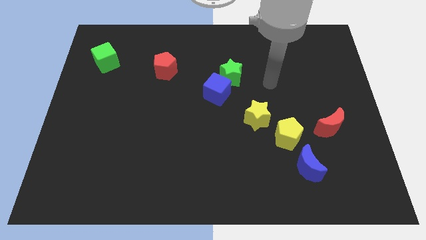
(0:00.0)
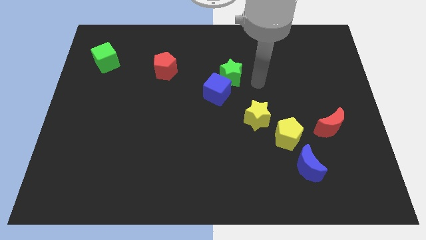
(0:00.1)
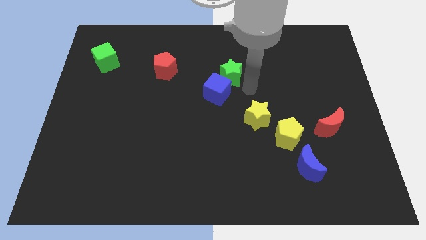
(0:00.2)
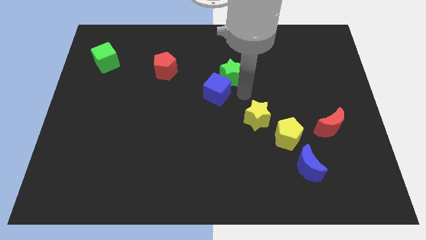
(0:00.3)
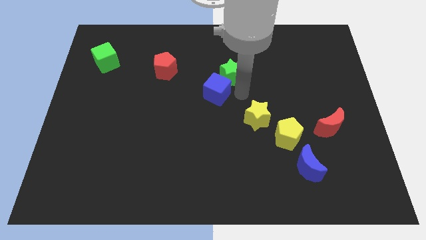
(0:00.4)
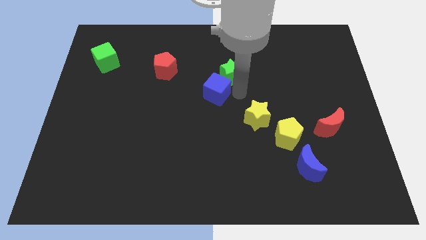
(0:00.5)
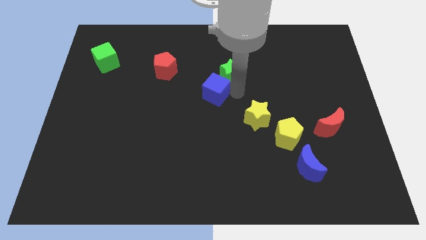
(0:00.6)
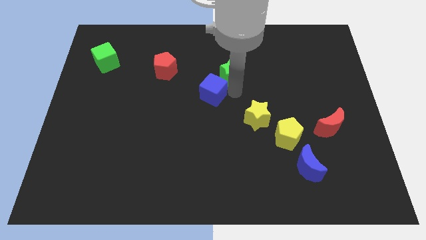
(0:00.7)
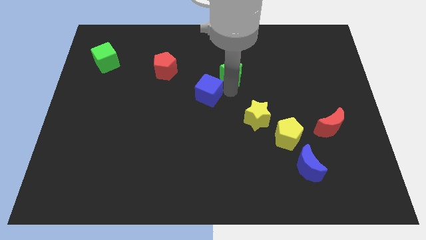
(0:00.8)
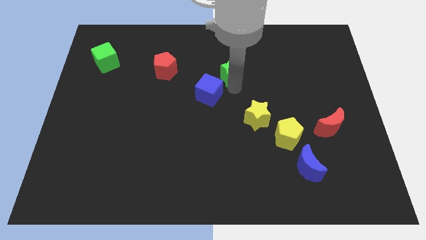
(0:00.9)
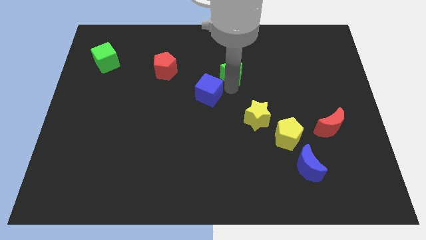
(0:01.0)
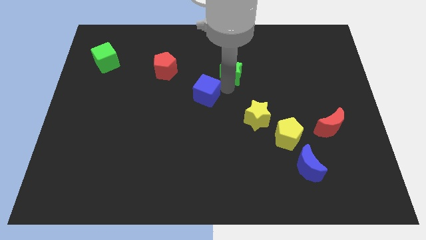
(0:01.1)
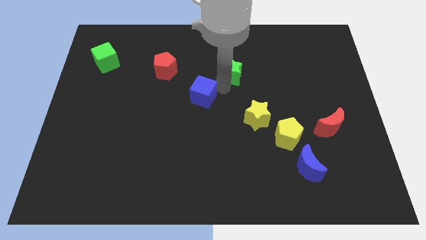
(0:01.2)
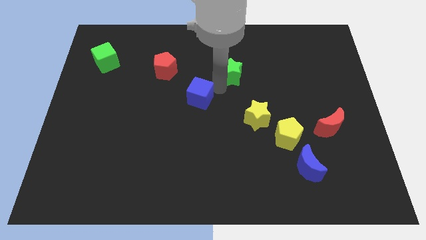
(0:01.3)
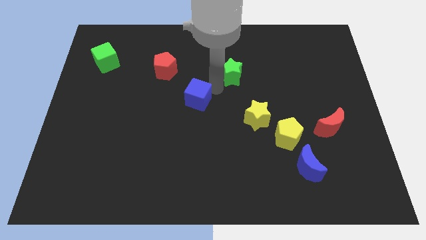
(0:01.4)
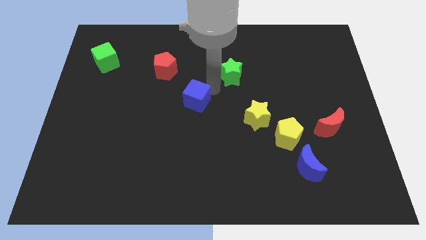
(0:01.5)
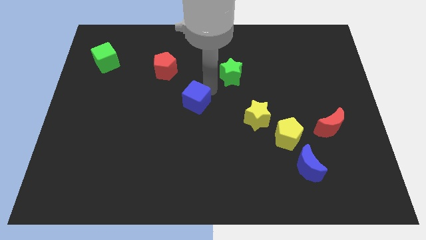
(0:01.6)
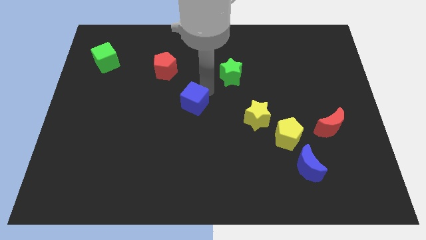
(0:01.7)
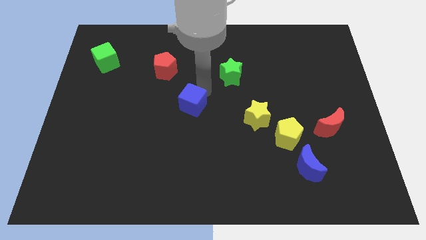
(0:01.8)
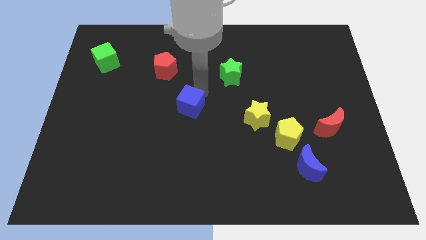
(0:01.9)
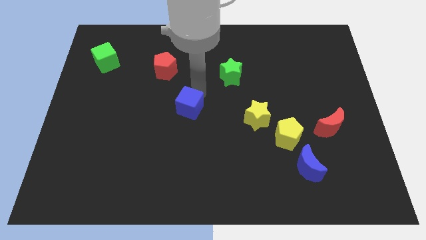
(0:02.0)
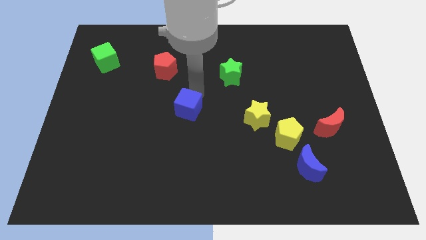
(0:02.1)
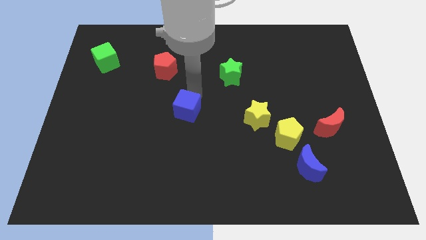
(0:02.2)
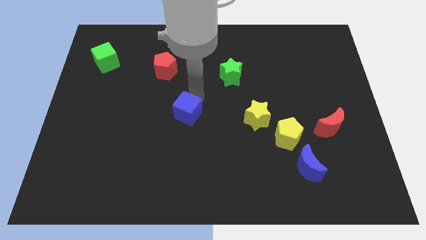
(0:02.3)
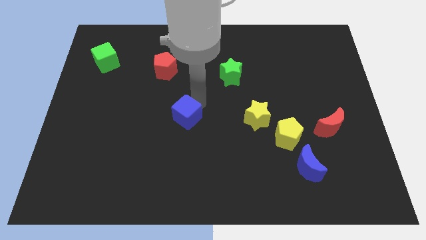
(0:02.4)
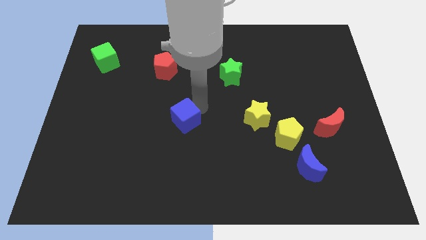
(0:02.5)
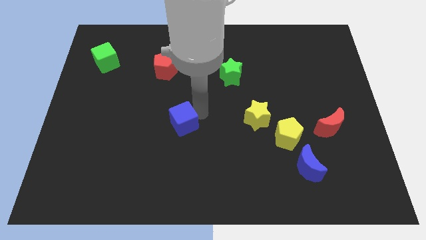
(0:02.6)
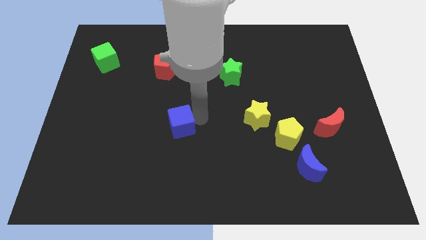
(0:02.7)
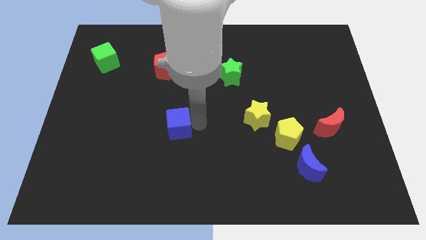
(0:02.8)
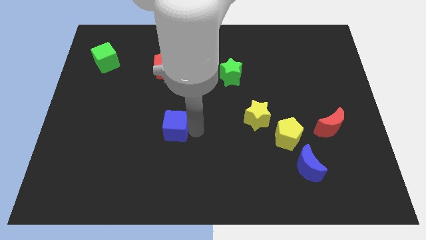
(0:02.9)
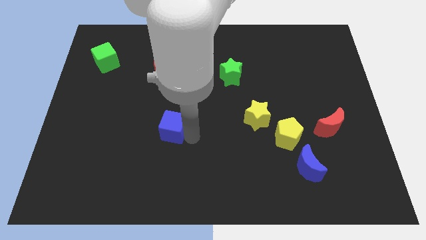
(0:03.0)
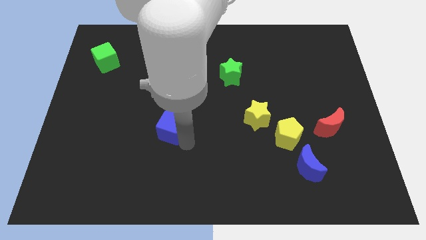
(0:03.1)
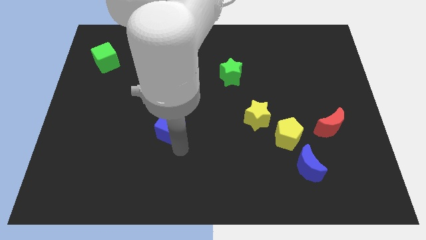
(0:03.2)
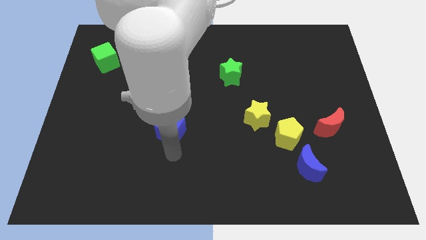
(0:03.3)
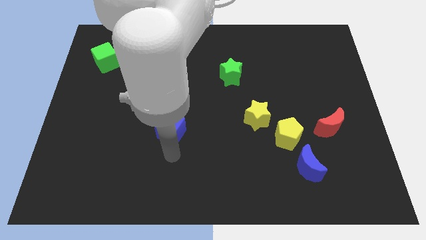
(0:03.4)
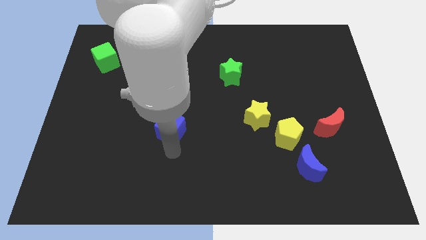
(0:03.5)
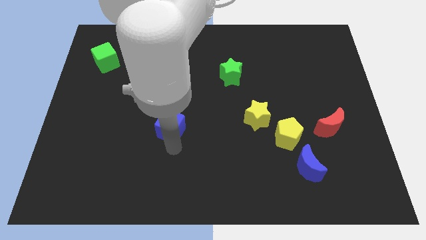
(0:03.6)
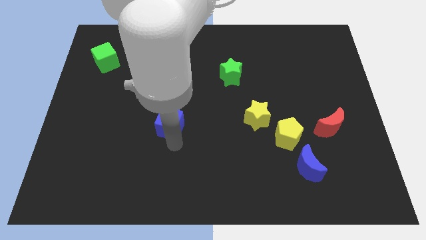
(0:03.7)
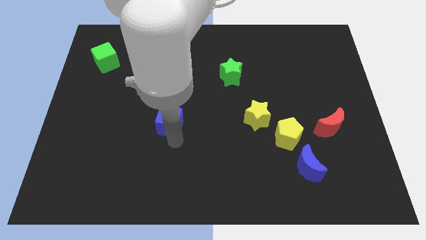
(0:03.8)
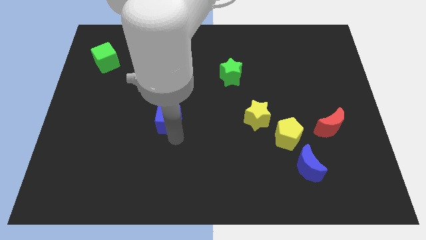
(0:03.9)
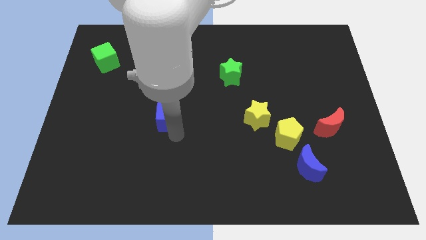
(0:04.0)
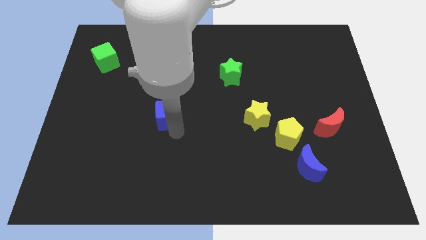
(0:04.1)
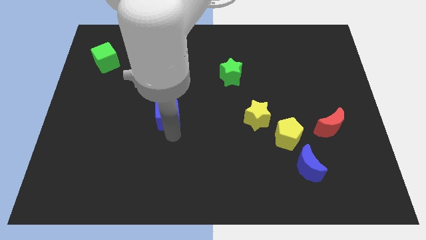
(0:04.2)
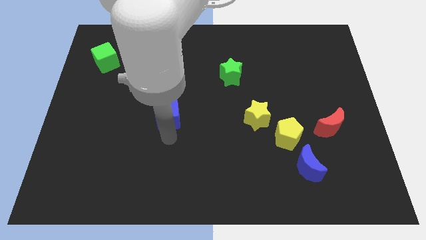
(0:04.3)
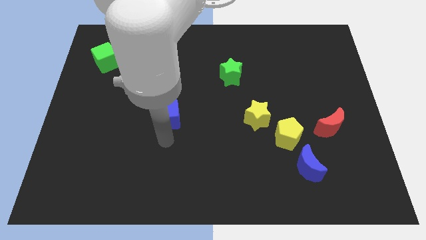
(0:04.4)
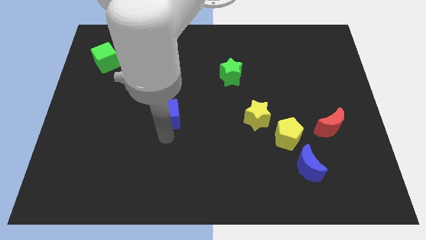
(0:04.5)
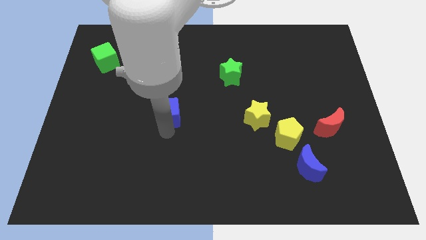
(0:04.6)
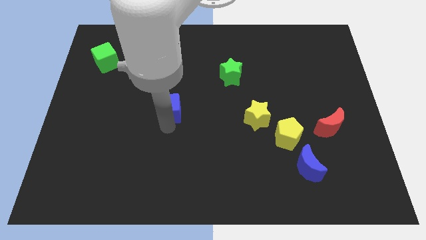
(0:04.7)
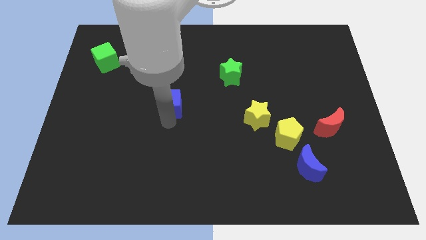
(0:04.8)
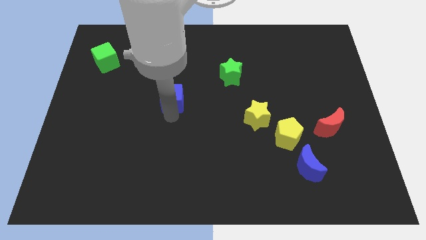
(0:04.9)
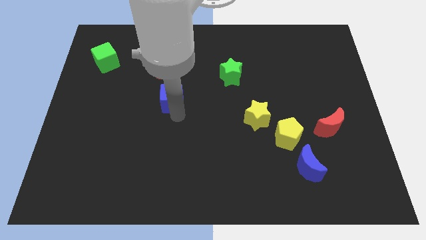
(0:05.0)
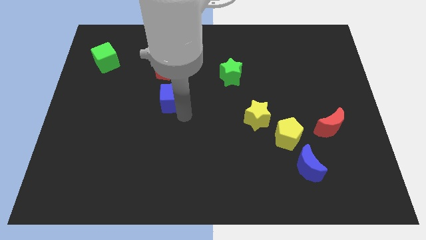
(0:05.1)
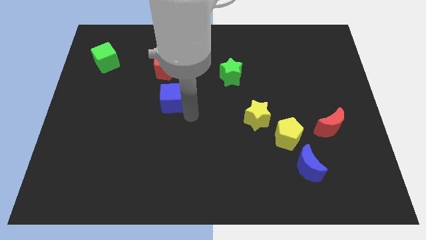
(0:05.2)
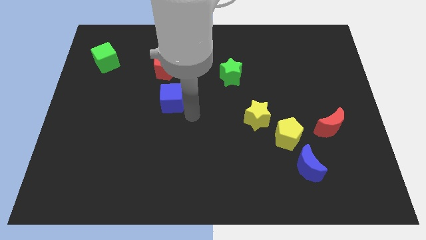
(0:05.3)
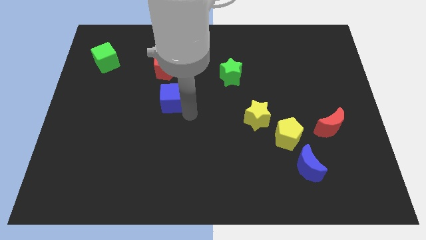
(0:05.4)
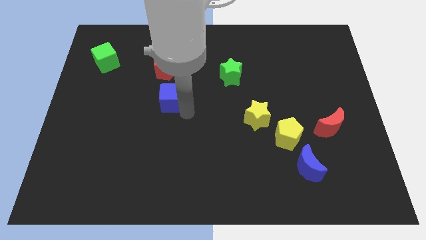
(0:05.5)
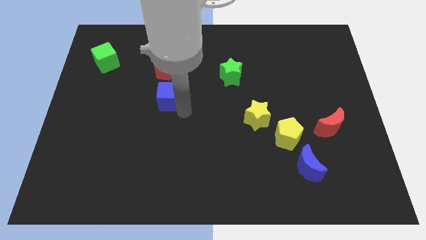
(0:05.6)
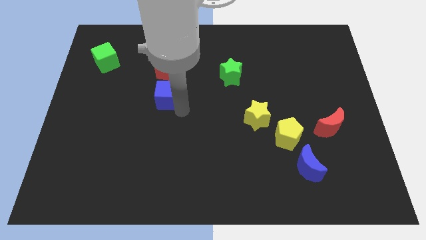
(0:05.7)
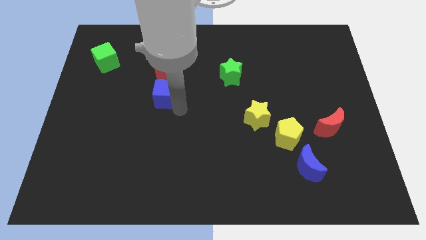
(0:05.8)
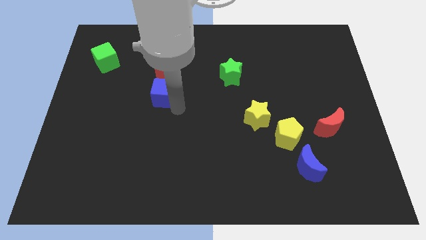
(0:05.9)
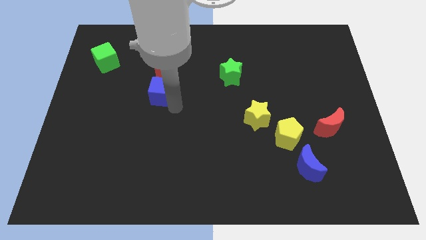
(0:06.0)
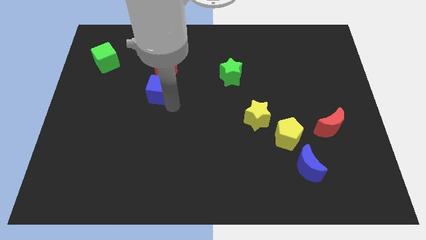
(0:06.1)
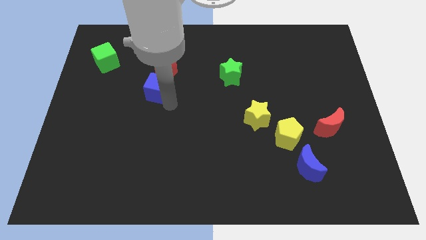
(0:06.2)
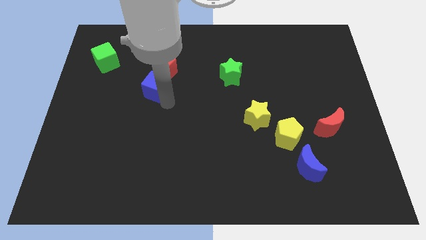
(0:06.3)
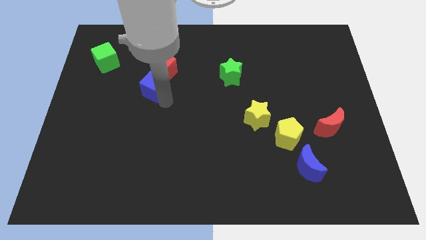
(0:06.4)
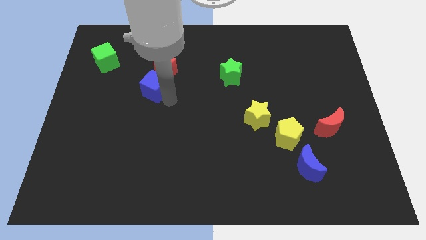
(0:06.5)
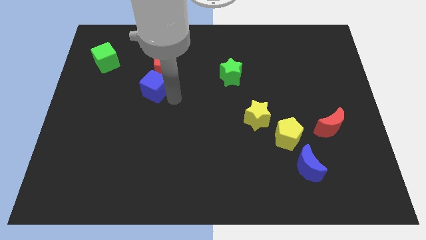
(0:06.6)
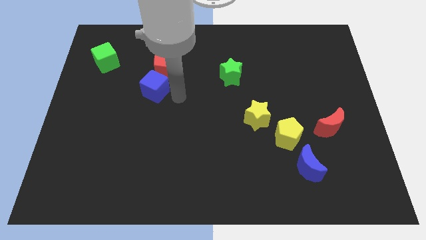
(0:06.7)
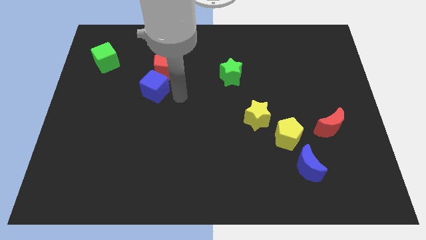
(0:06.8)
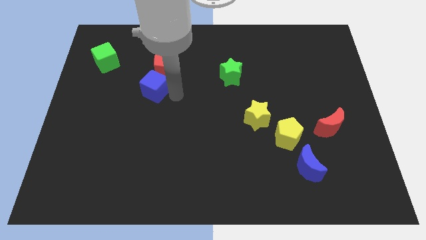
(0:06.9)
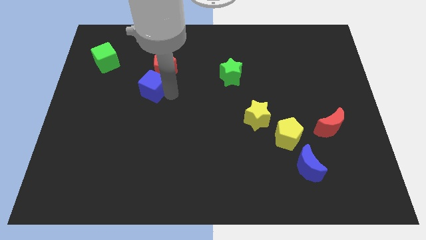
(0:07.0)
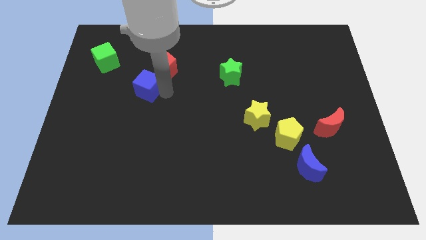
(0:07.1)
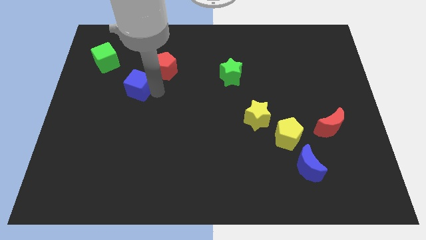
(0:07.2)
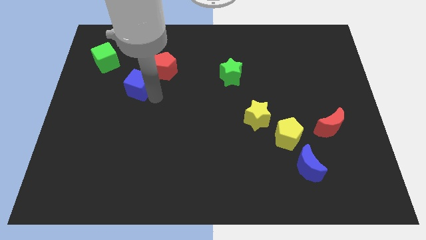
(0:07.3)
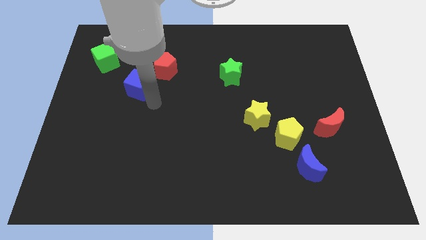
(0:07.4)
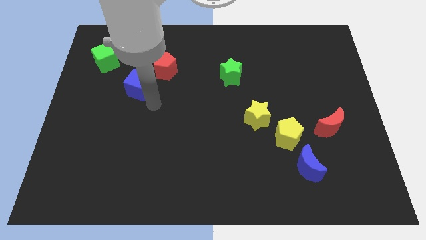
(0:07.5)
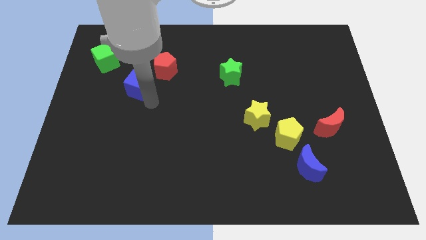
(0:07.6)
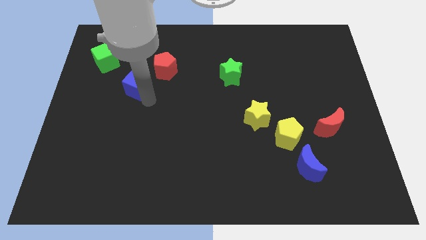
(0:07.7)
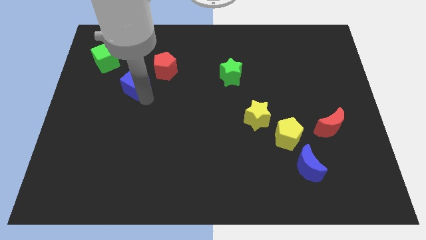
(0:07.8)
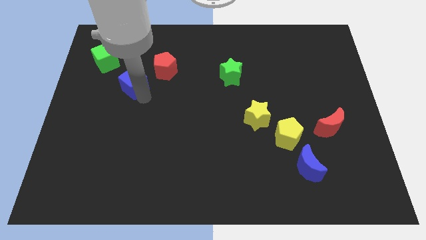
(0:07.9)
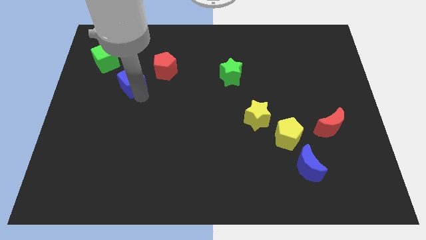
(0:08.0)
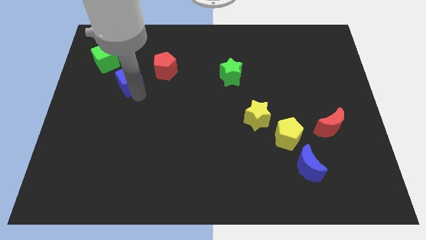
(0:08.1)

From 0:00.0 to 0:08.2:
put the blue cube to the left of the red pentagon
